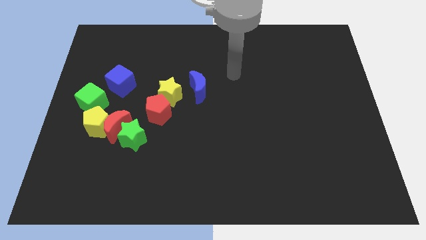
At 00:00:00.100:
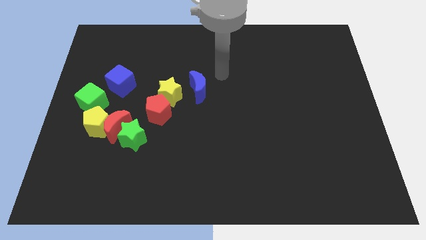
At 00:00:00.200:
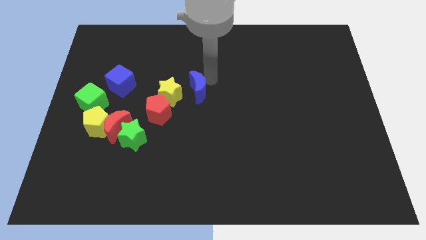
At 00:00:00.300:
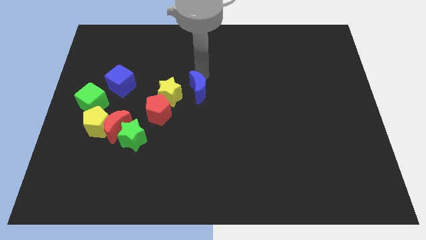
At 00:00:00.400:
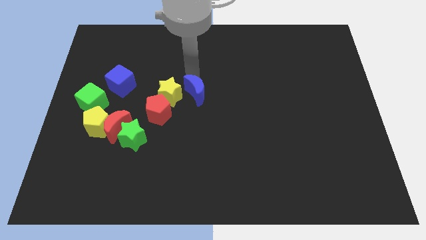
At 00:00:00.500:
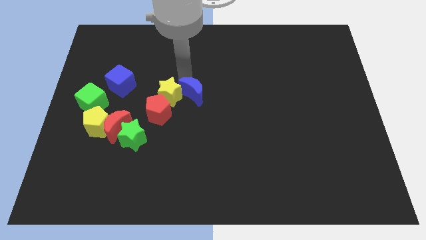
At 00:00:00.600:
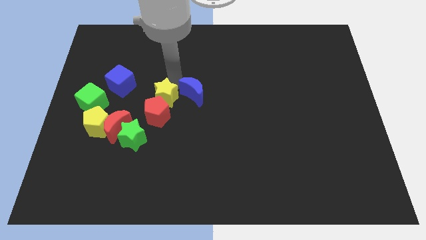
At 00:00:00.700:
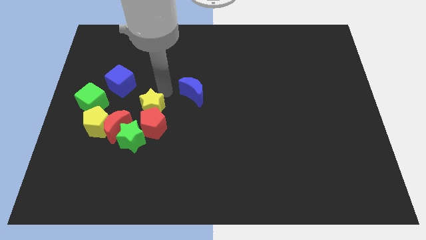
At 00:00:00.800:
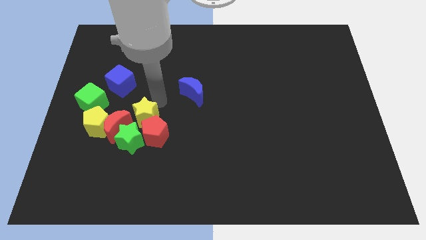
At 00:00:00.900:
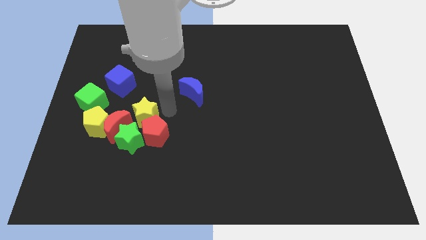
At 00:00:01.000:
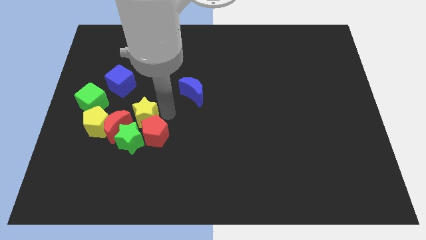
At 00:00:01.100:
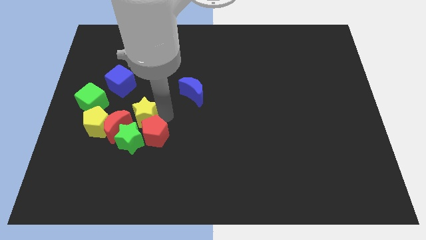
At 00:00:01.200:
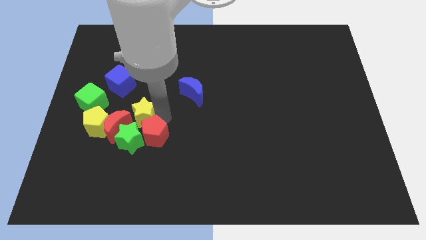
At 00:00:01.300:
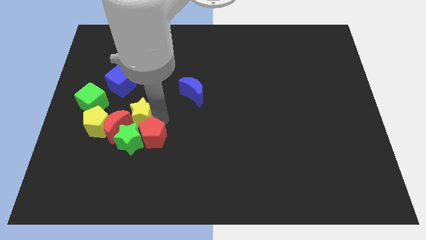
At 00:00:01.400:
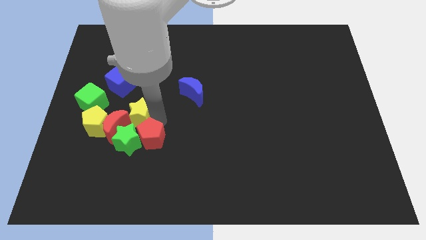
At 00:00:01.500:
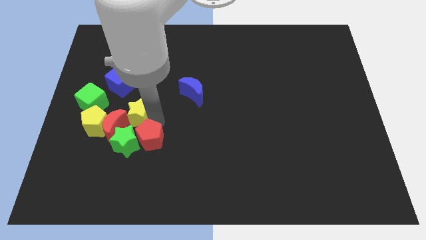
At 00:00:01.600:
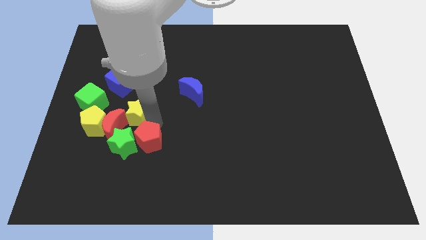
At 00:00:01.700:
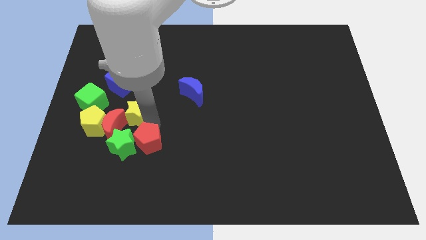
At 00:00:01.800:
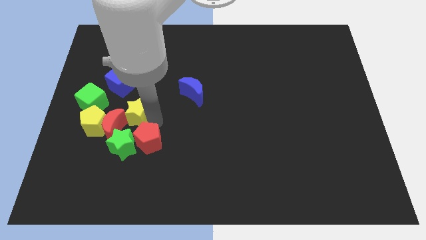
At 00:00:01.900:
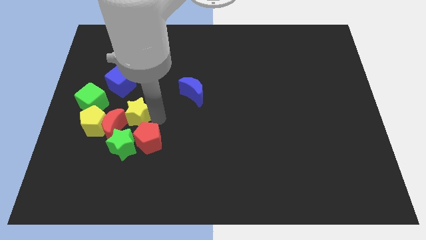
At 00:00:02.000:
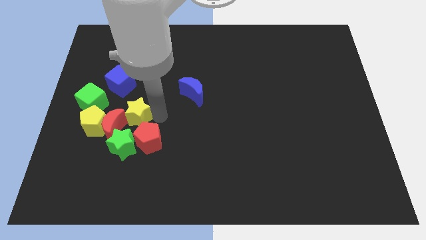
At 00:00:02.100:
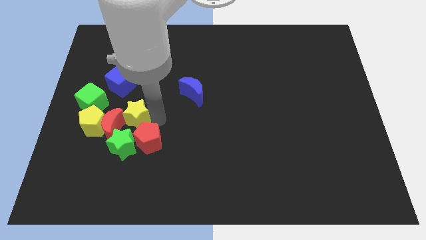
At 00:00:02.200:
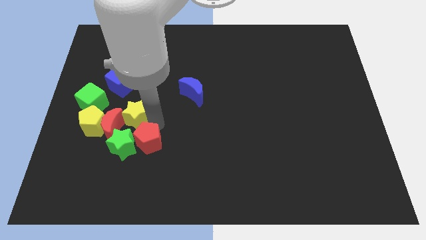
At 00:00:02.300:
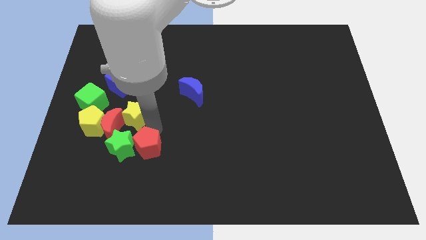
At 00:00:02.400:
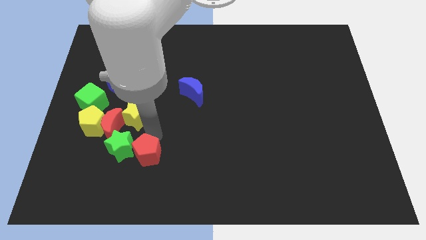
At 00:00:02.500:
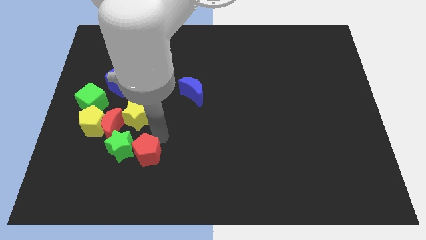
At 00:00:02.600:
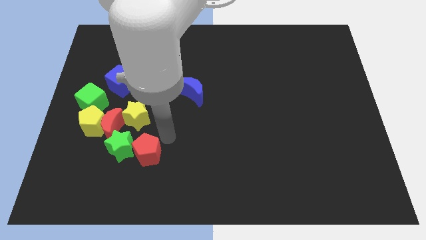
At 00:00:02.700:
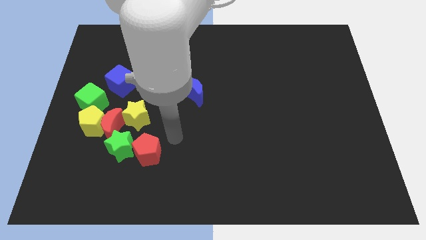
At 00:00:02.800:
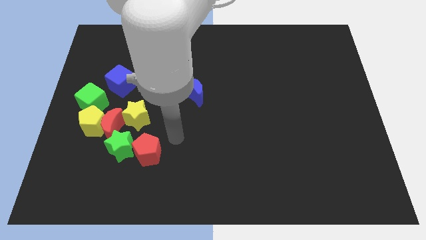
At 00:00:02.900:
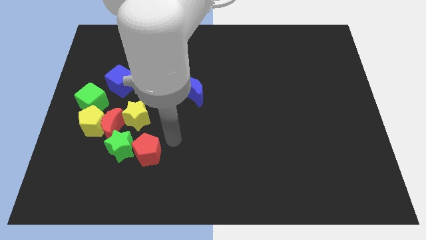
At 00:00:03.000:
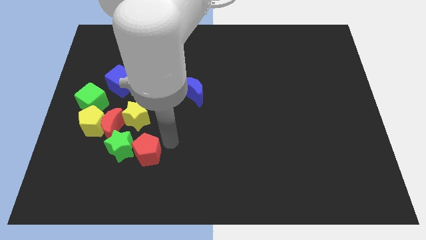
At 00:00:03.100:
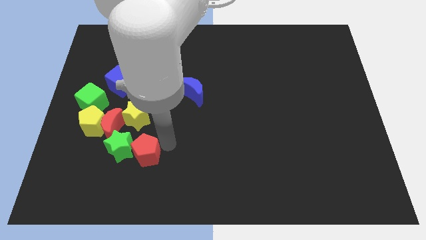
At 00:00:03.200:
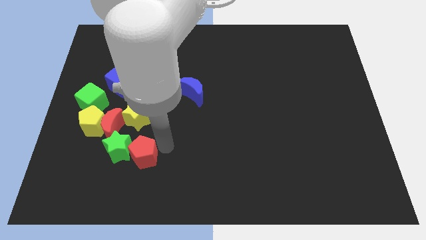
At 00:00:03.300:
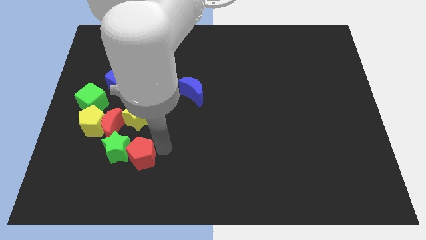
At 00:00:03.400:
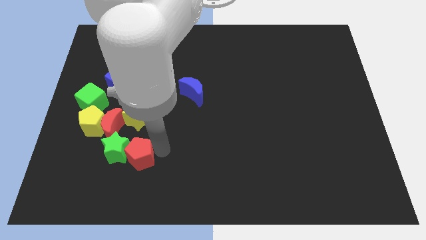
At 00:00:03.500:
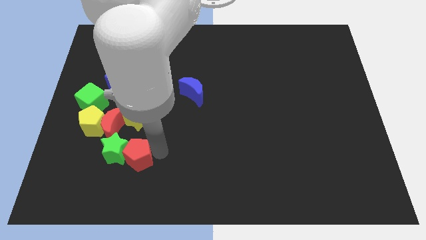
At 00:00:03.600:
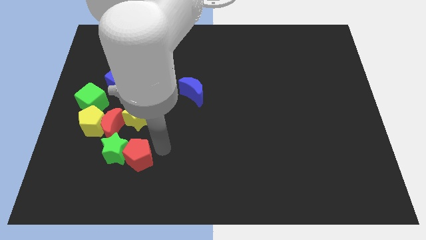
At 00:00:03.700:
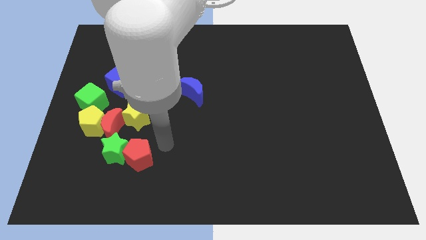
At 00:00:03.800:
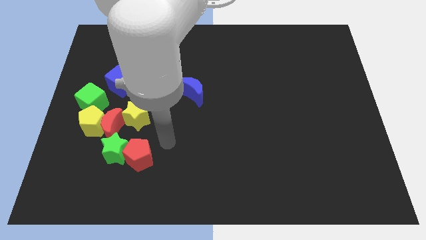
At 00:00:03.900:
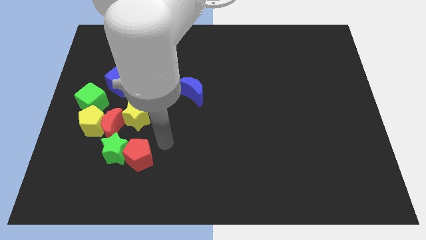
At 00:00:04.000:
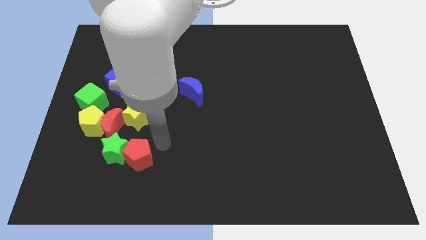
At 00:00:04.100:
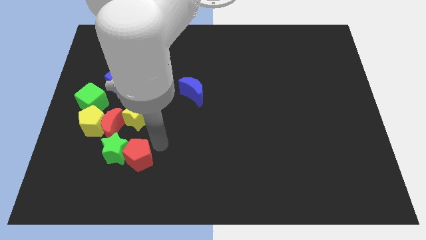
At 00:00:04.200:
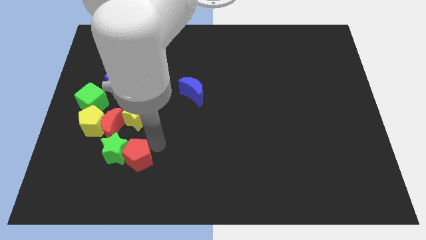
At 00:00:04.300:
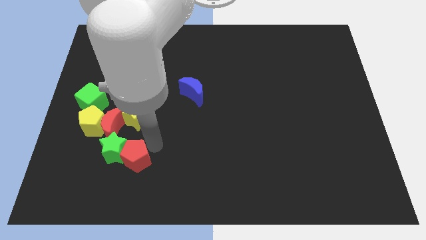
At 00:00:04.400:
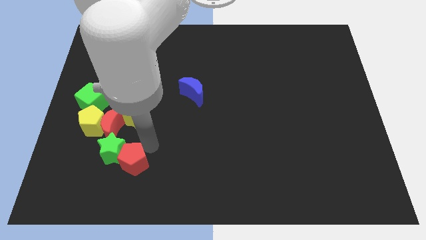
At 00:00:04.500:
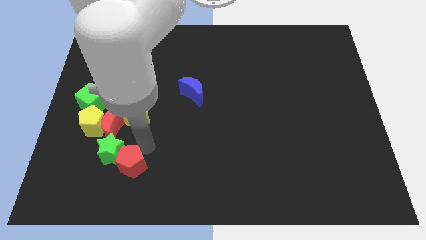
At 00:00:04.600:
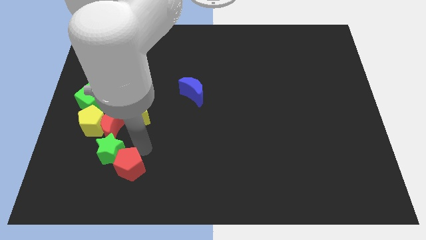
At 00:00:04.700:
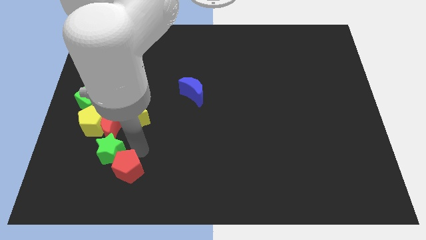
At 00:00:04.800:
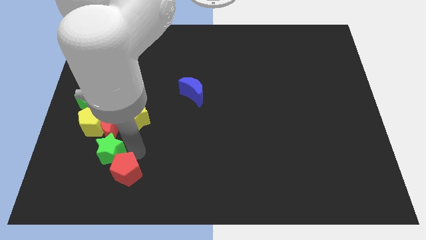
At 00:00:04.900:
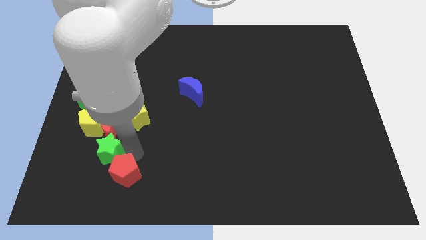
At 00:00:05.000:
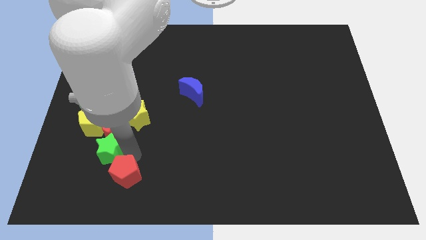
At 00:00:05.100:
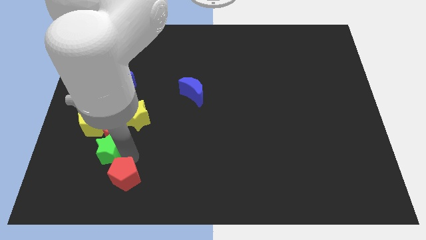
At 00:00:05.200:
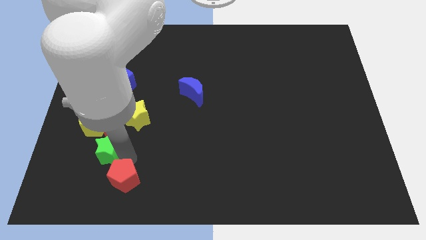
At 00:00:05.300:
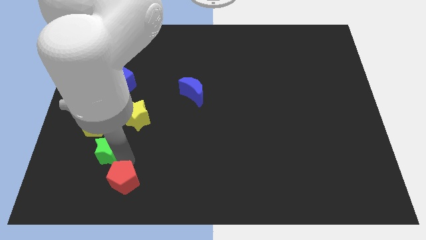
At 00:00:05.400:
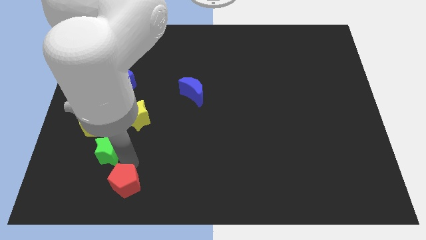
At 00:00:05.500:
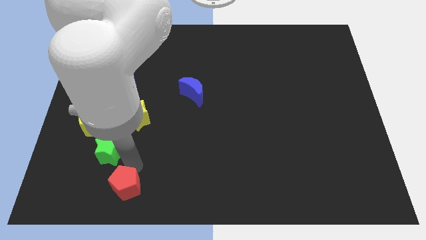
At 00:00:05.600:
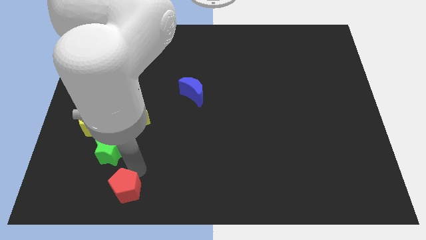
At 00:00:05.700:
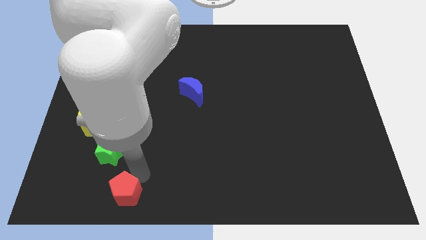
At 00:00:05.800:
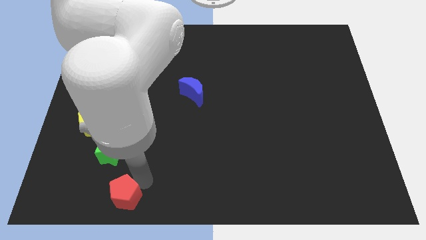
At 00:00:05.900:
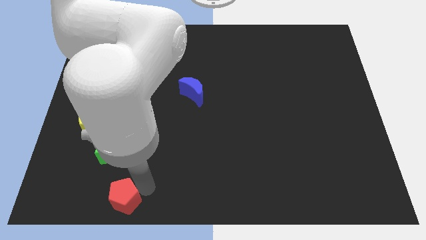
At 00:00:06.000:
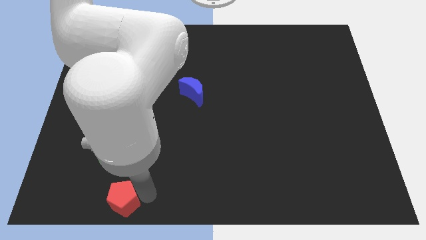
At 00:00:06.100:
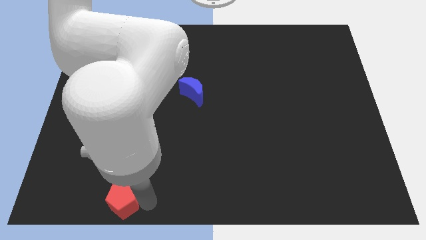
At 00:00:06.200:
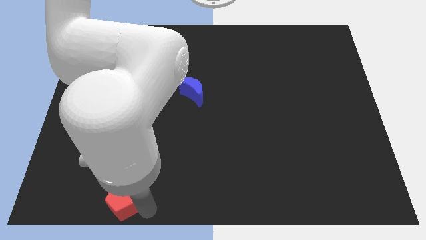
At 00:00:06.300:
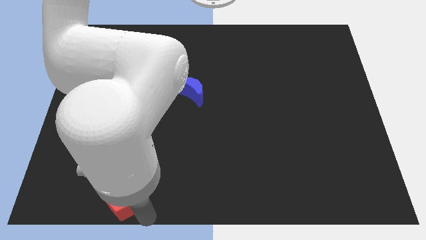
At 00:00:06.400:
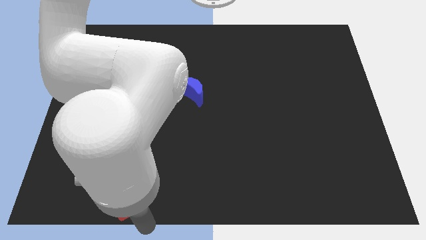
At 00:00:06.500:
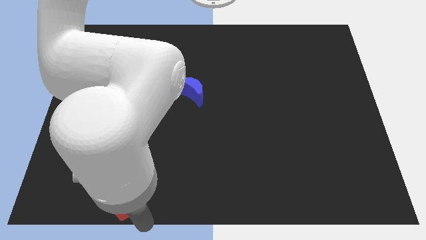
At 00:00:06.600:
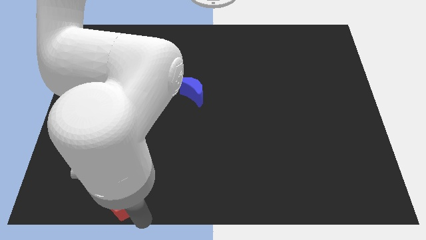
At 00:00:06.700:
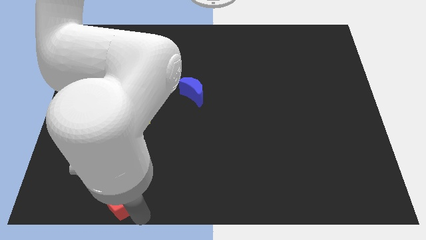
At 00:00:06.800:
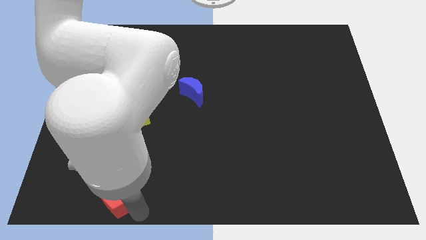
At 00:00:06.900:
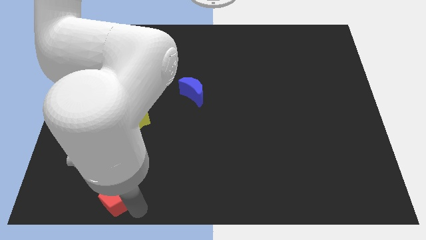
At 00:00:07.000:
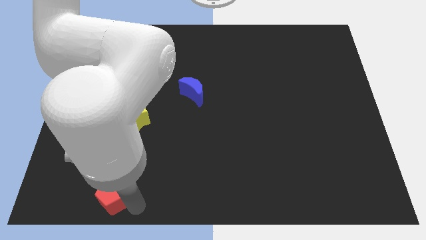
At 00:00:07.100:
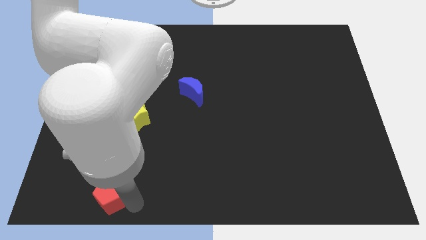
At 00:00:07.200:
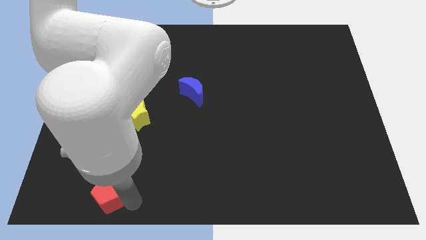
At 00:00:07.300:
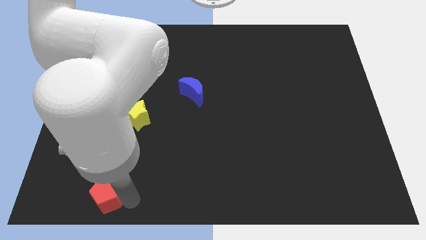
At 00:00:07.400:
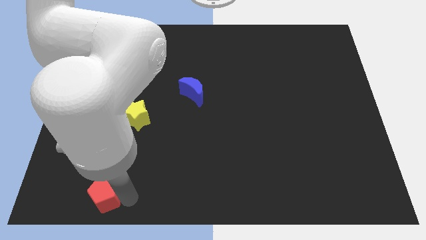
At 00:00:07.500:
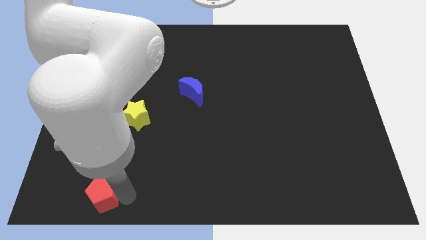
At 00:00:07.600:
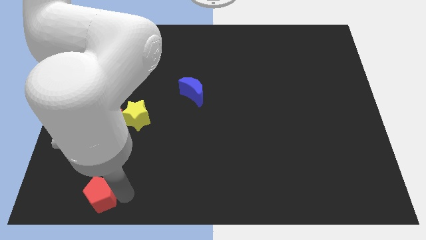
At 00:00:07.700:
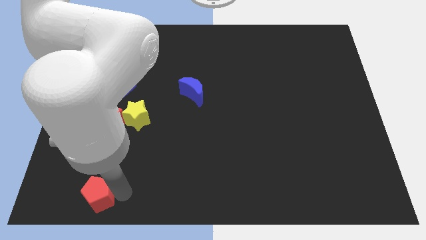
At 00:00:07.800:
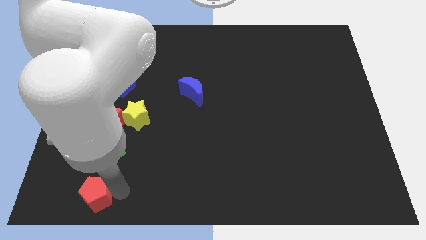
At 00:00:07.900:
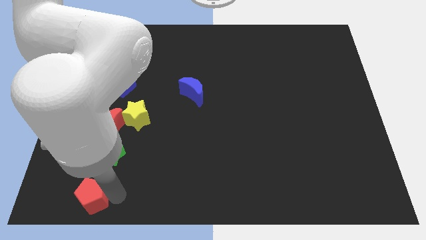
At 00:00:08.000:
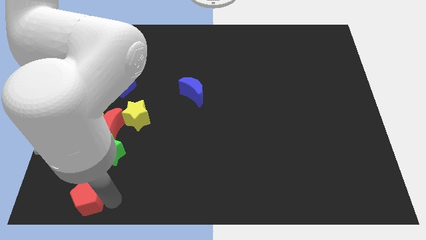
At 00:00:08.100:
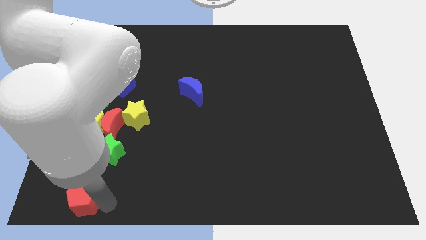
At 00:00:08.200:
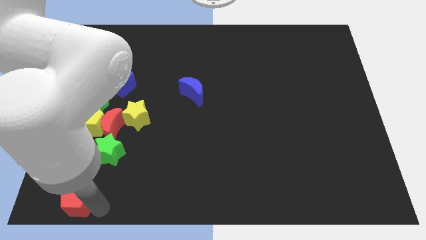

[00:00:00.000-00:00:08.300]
push the red pentagon to the bottom left of the board
